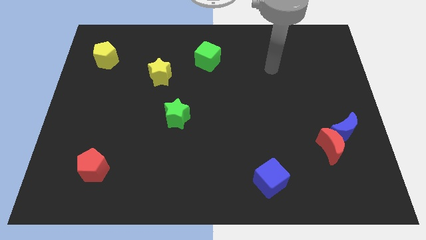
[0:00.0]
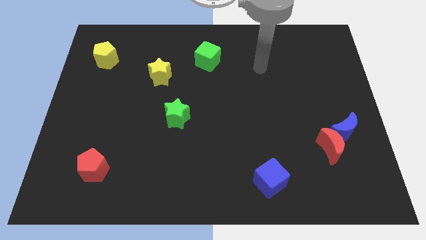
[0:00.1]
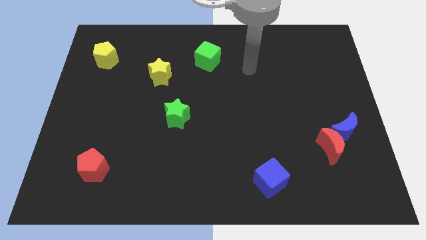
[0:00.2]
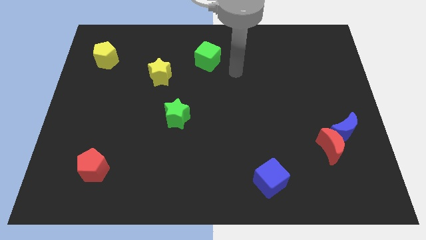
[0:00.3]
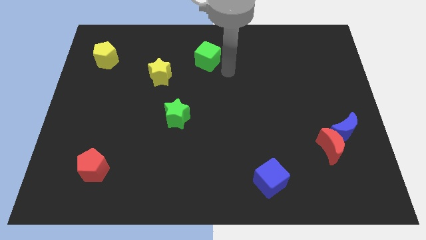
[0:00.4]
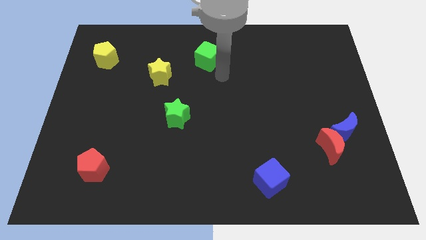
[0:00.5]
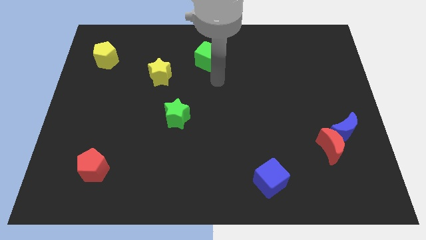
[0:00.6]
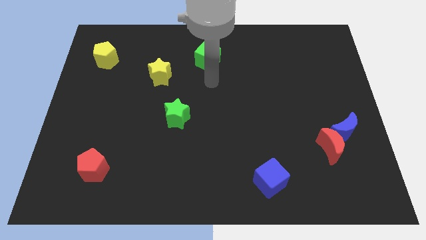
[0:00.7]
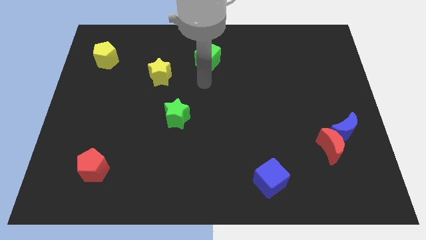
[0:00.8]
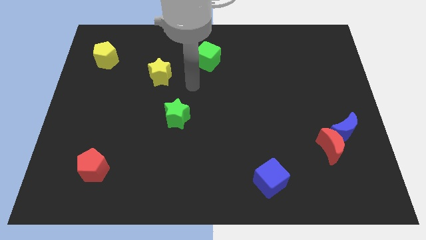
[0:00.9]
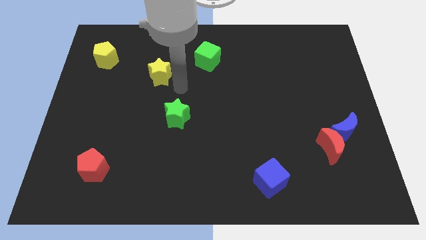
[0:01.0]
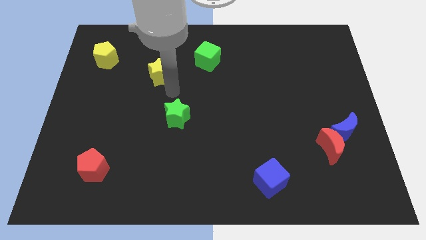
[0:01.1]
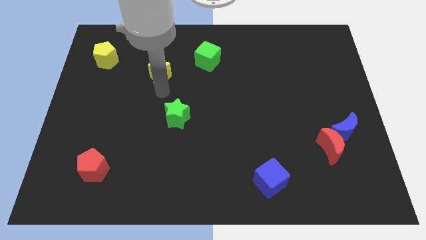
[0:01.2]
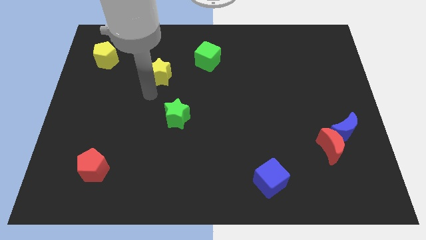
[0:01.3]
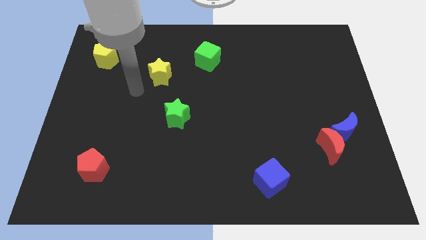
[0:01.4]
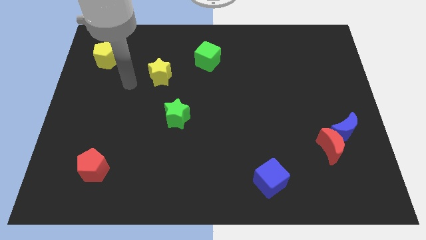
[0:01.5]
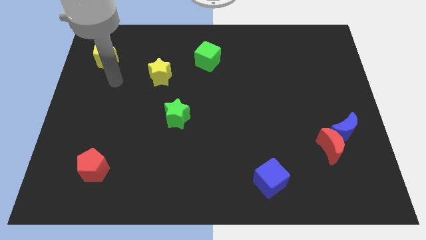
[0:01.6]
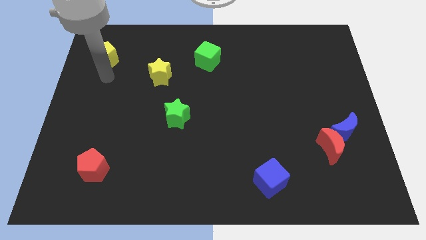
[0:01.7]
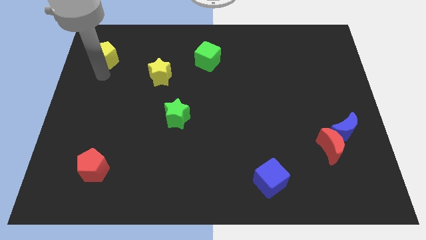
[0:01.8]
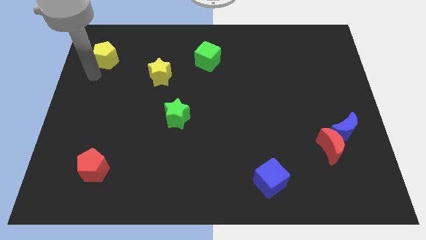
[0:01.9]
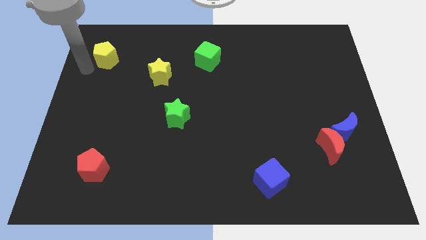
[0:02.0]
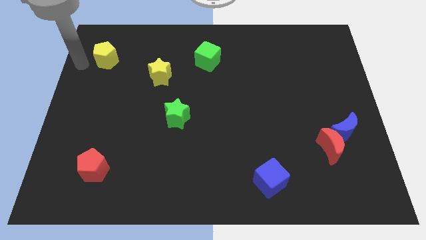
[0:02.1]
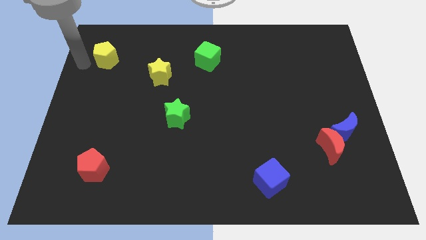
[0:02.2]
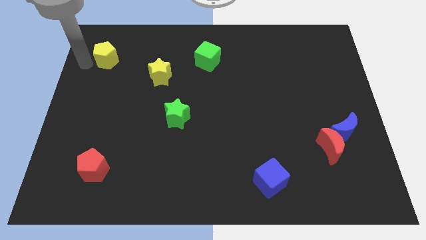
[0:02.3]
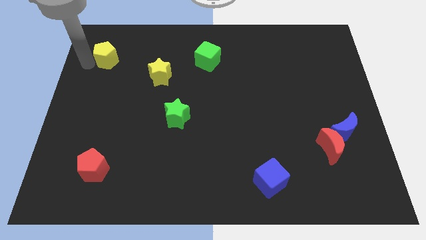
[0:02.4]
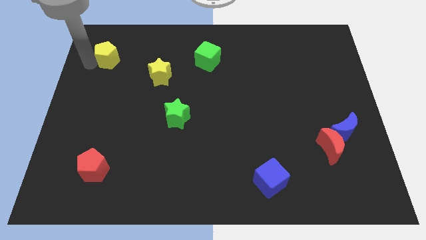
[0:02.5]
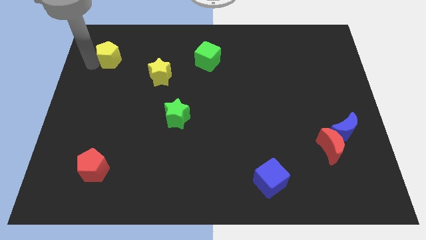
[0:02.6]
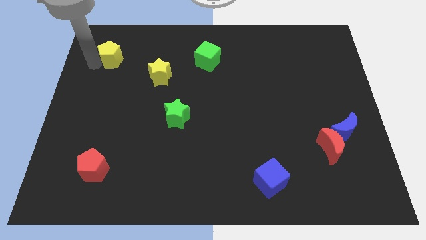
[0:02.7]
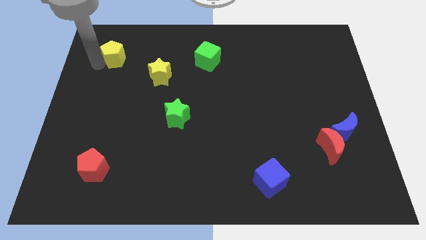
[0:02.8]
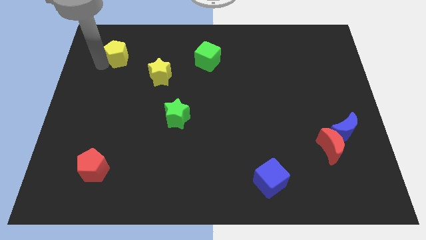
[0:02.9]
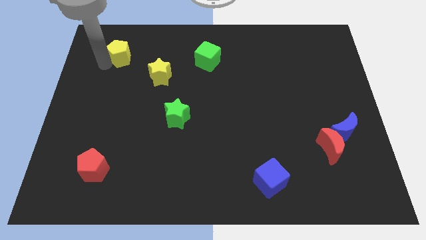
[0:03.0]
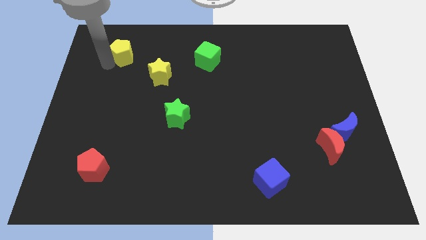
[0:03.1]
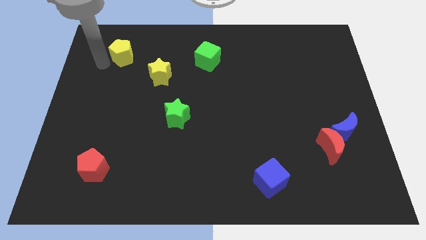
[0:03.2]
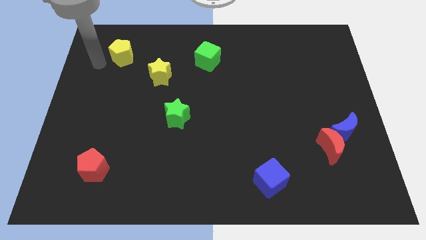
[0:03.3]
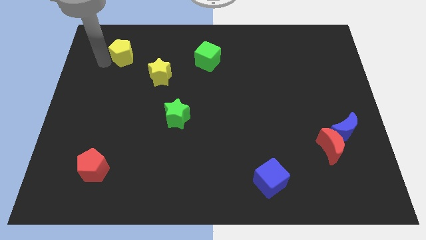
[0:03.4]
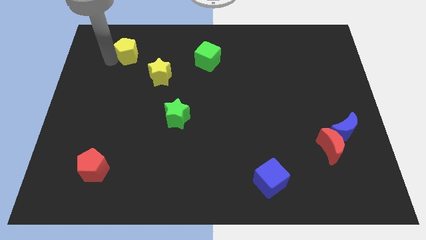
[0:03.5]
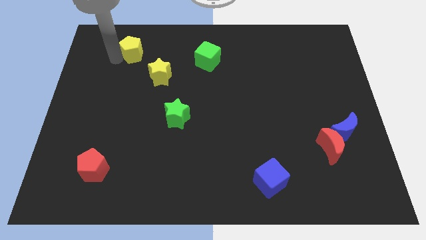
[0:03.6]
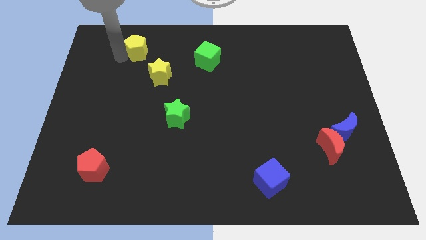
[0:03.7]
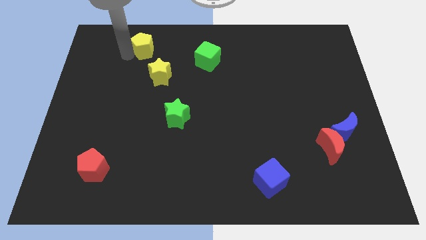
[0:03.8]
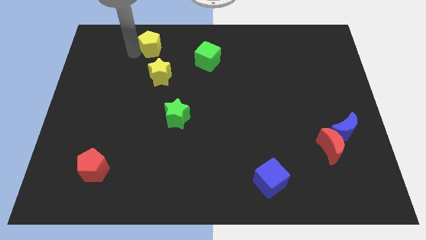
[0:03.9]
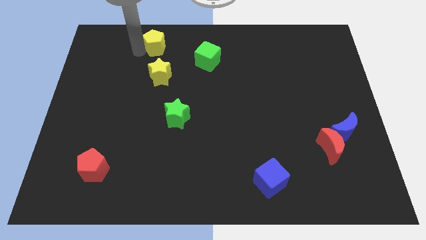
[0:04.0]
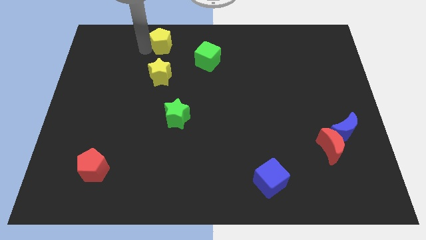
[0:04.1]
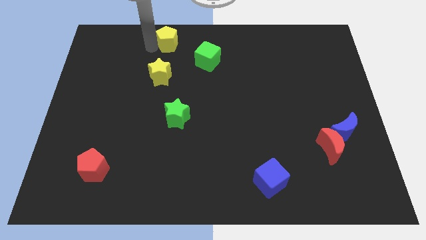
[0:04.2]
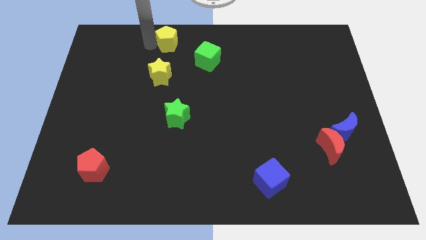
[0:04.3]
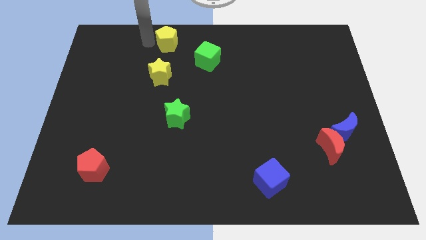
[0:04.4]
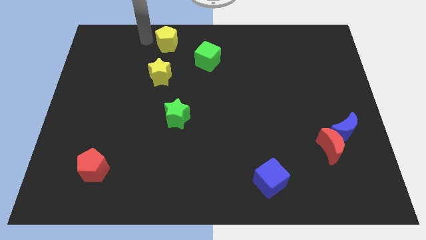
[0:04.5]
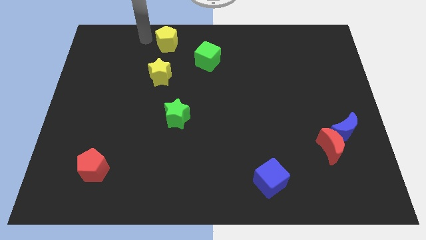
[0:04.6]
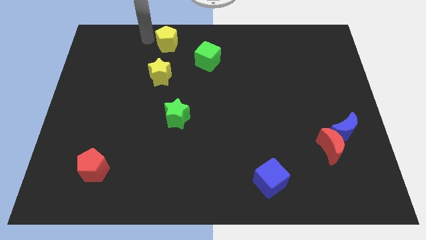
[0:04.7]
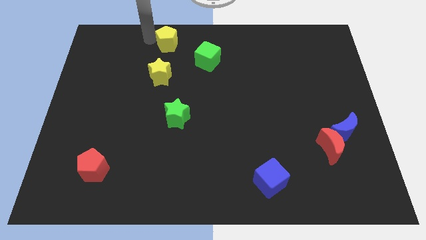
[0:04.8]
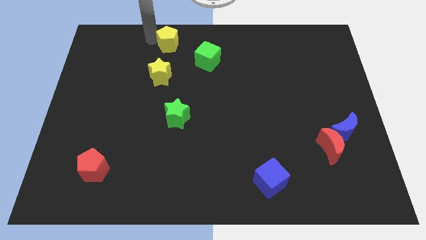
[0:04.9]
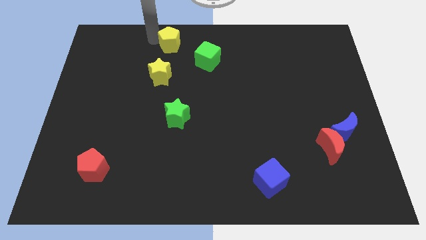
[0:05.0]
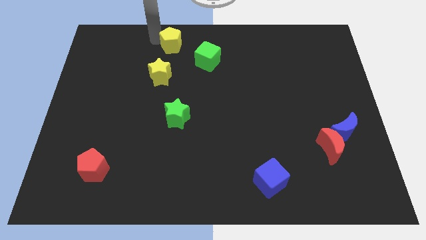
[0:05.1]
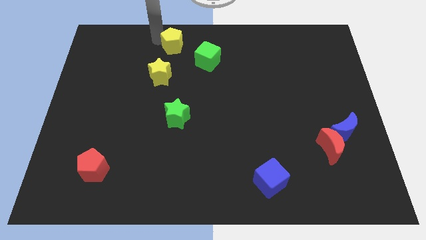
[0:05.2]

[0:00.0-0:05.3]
slide the yellow pentagon to the top

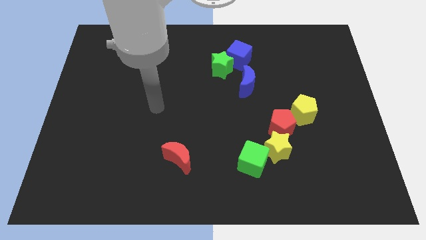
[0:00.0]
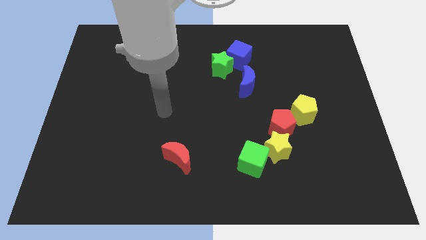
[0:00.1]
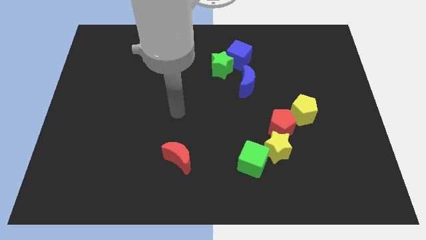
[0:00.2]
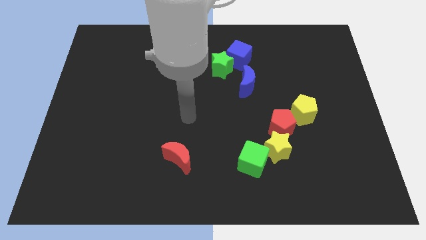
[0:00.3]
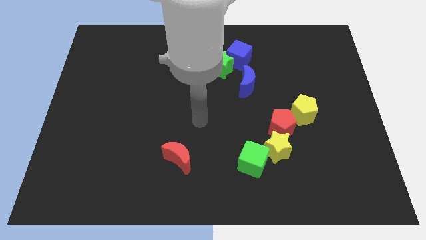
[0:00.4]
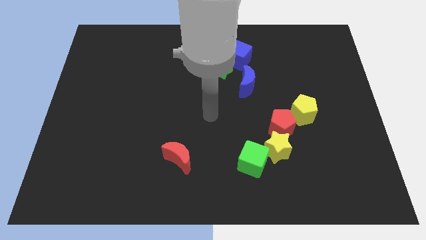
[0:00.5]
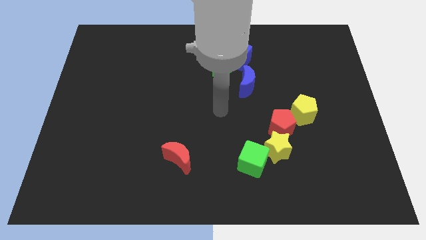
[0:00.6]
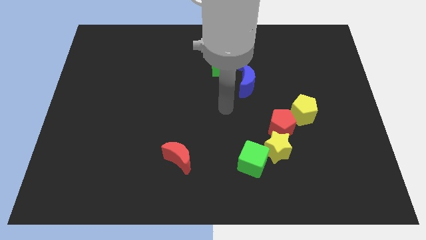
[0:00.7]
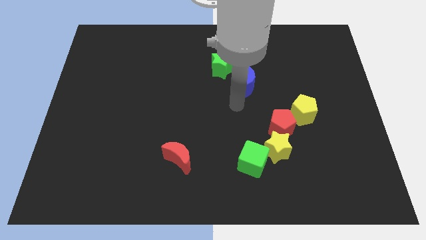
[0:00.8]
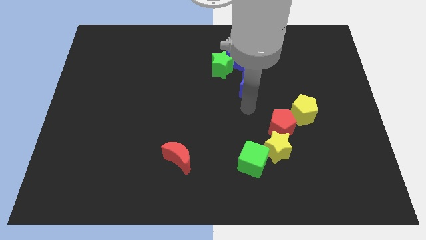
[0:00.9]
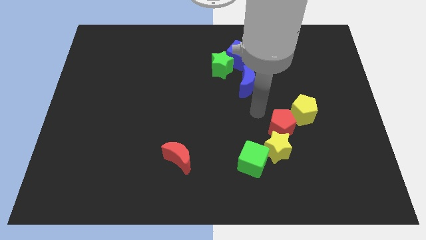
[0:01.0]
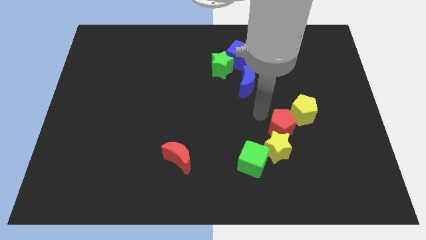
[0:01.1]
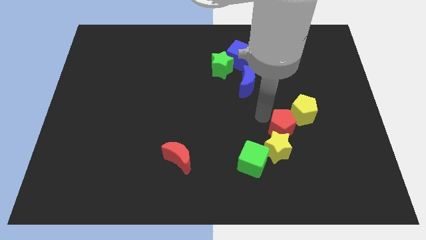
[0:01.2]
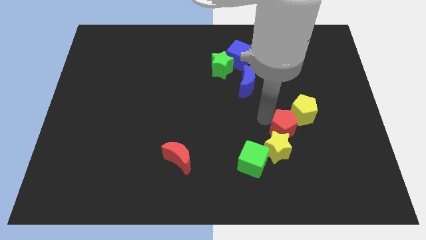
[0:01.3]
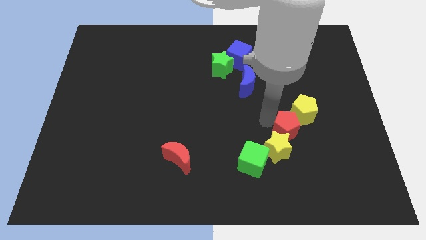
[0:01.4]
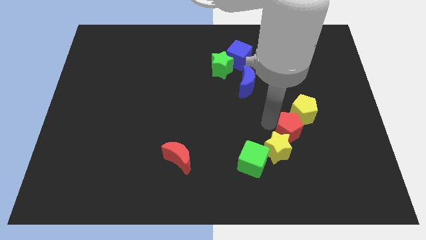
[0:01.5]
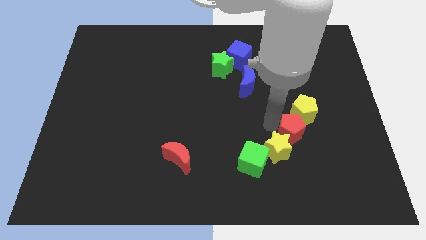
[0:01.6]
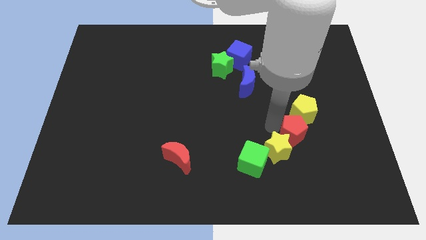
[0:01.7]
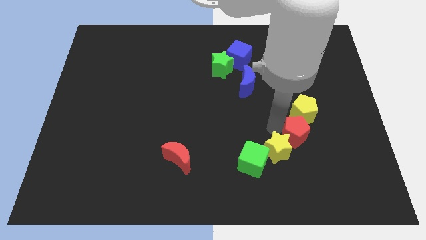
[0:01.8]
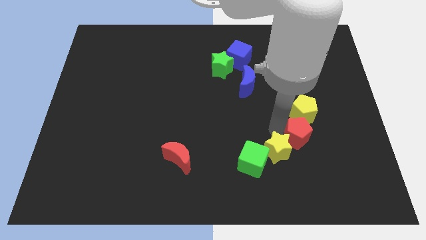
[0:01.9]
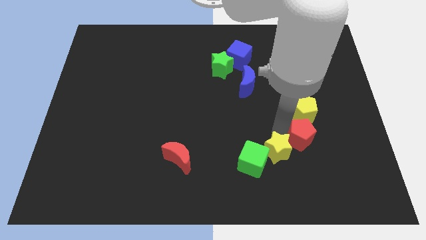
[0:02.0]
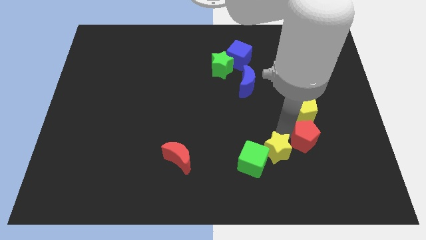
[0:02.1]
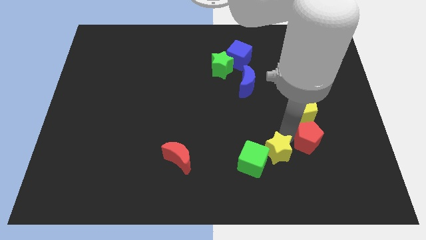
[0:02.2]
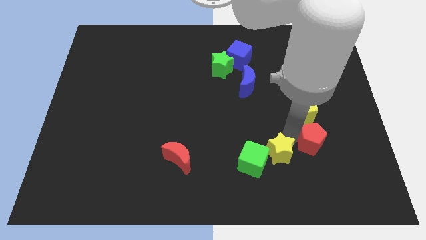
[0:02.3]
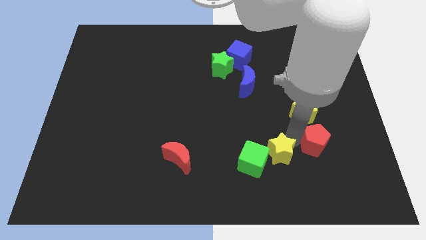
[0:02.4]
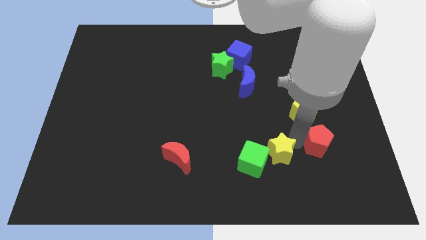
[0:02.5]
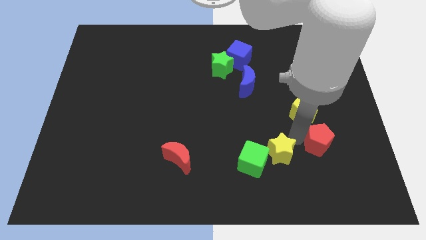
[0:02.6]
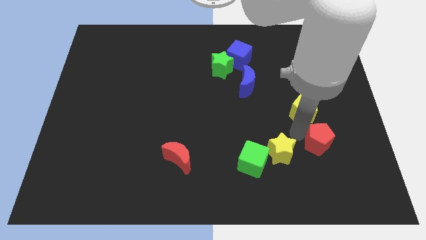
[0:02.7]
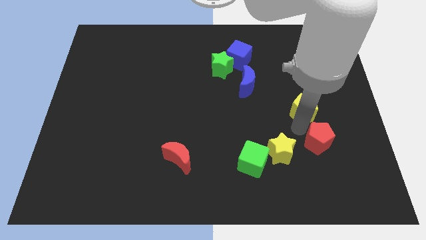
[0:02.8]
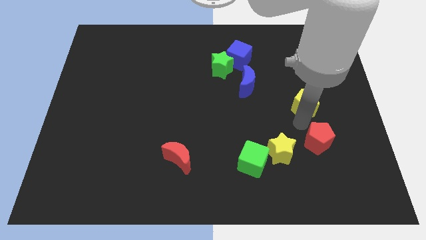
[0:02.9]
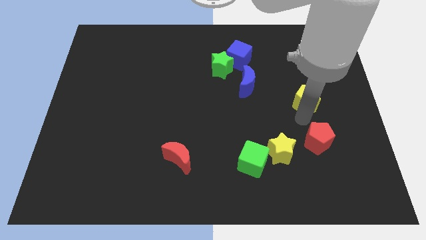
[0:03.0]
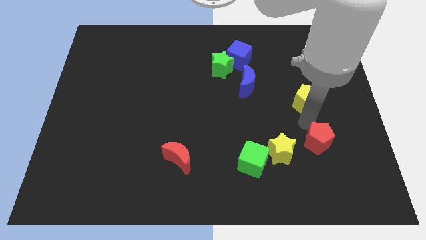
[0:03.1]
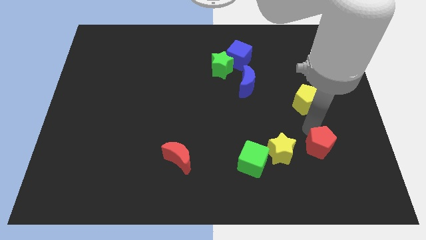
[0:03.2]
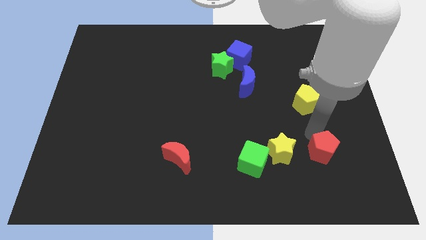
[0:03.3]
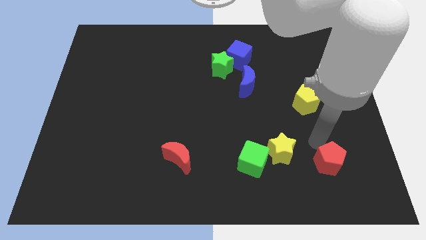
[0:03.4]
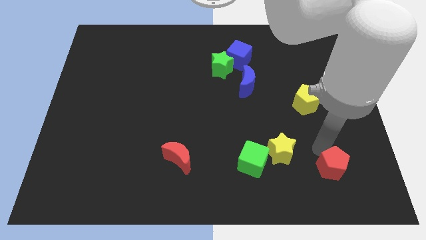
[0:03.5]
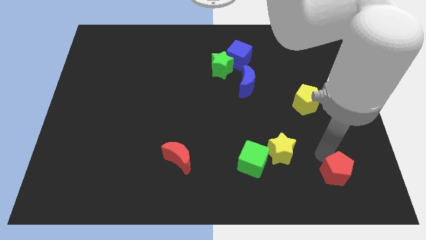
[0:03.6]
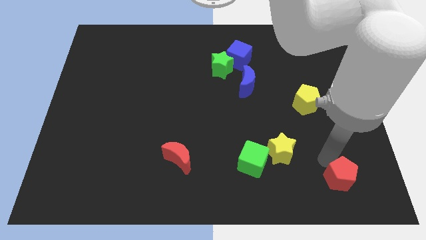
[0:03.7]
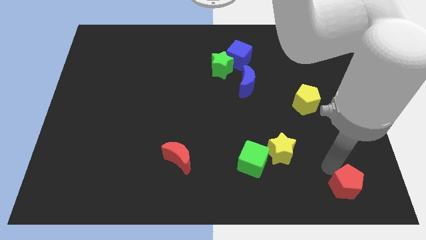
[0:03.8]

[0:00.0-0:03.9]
slide the red pentagon to the lower right corner
